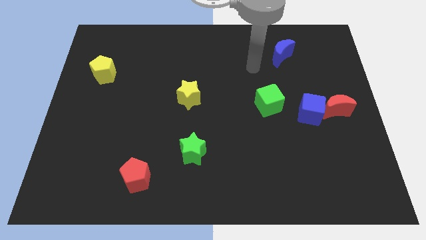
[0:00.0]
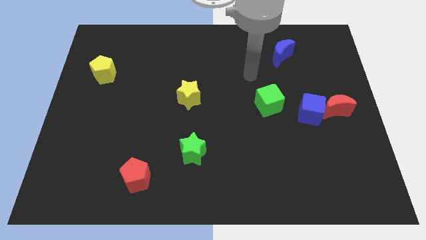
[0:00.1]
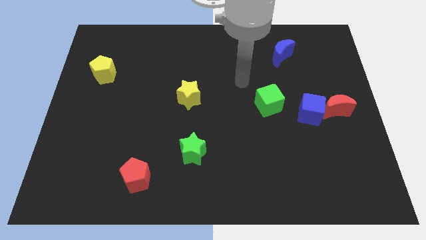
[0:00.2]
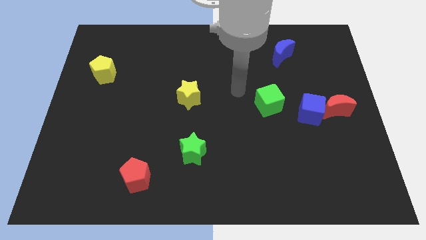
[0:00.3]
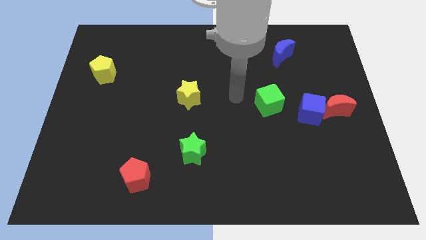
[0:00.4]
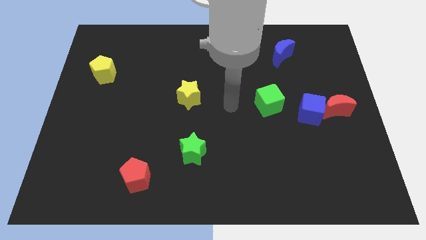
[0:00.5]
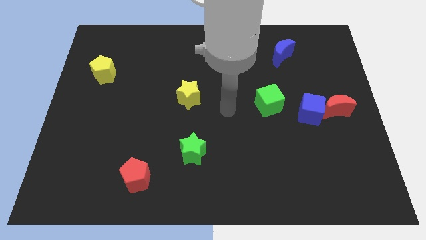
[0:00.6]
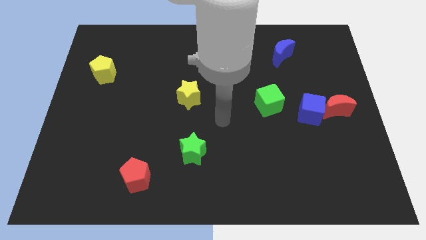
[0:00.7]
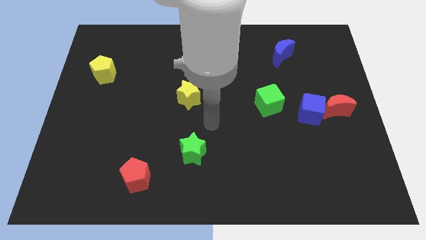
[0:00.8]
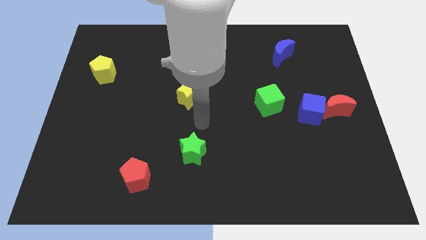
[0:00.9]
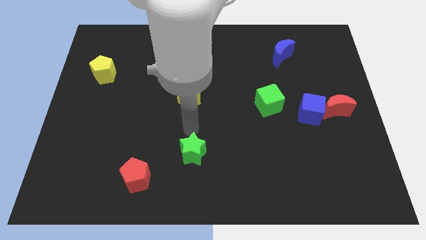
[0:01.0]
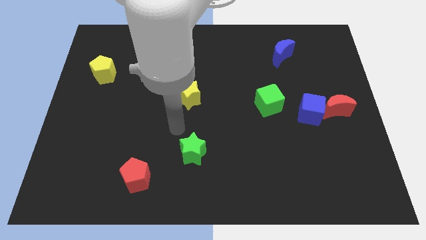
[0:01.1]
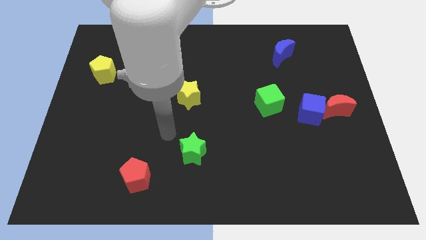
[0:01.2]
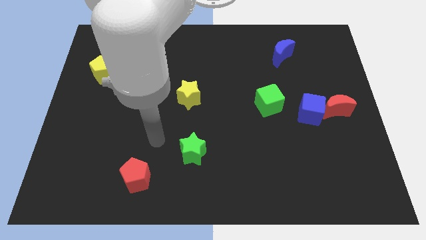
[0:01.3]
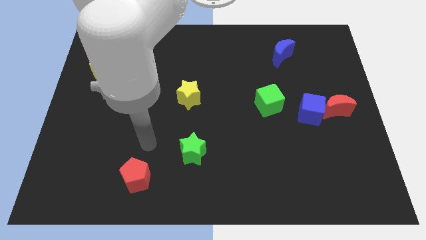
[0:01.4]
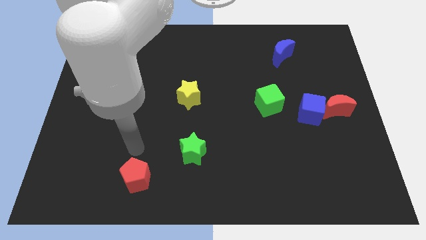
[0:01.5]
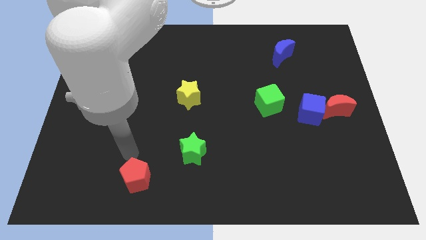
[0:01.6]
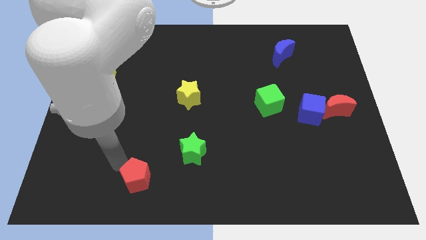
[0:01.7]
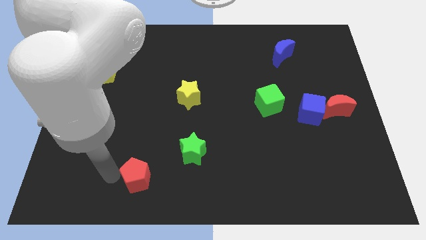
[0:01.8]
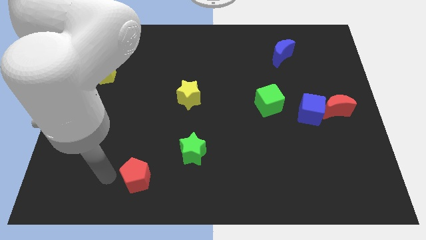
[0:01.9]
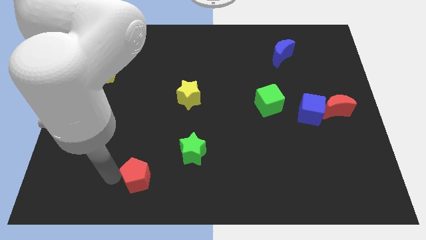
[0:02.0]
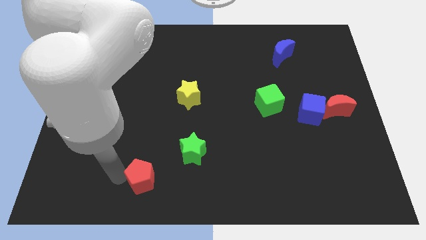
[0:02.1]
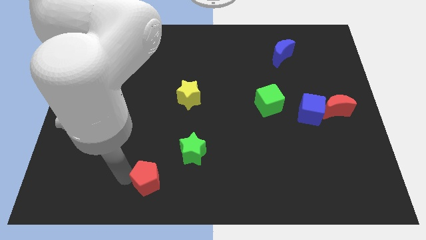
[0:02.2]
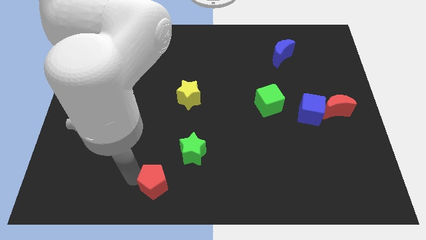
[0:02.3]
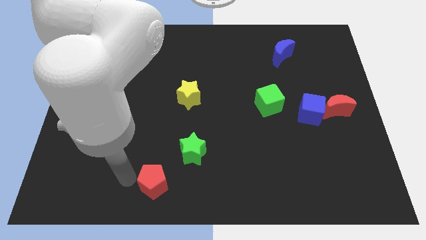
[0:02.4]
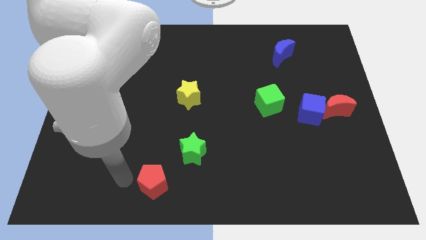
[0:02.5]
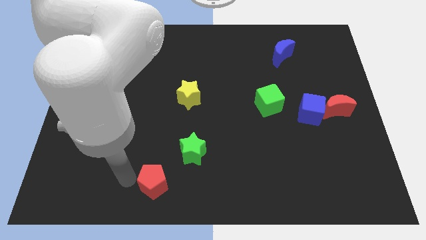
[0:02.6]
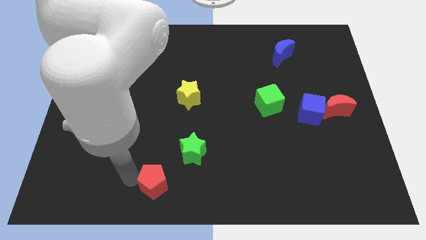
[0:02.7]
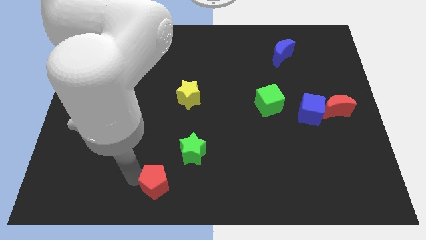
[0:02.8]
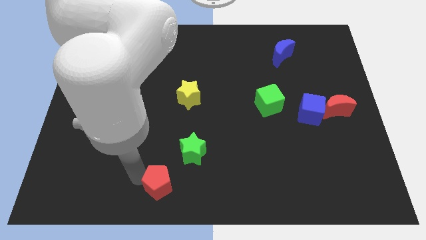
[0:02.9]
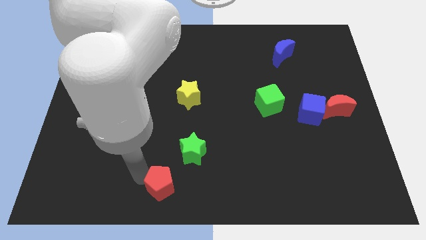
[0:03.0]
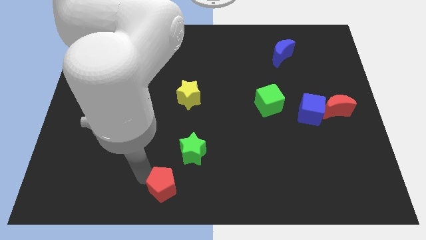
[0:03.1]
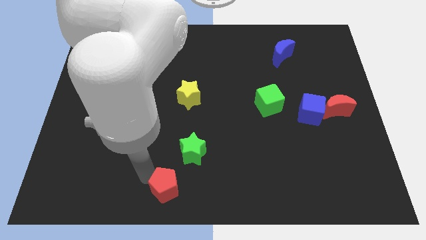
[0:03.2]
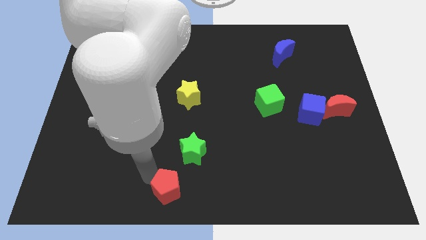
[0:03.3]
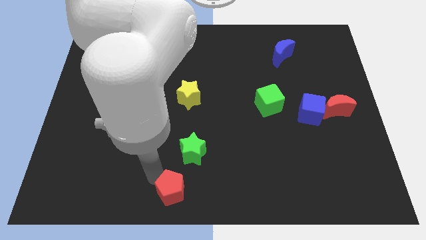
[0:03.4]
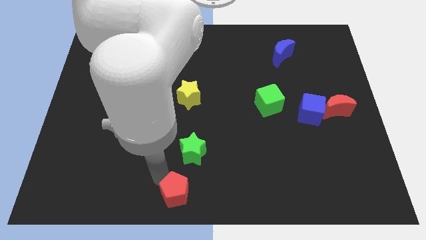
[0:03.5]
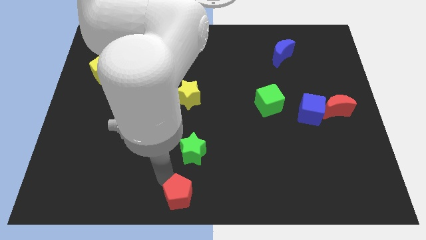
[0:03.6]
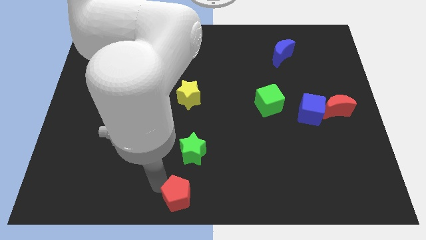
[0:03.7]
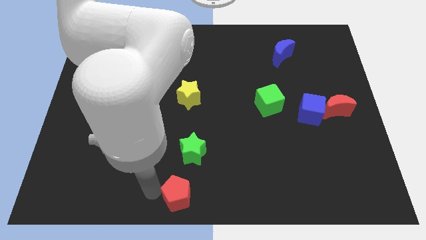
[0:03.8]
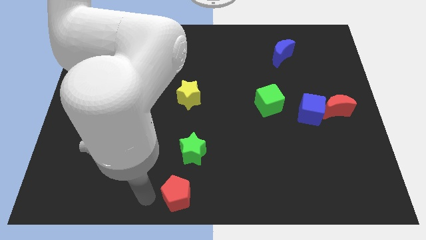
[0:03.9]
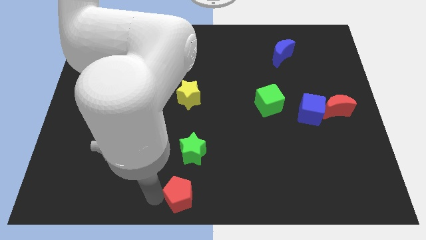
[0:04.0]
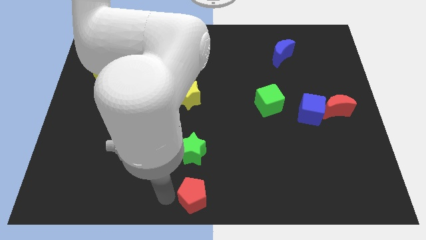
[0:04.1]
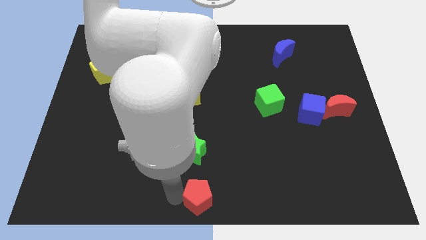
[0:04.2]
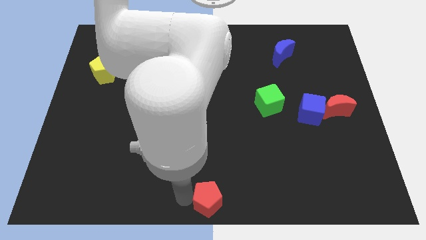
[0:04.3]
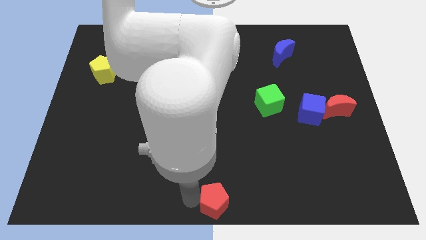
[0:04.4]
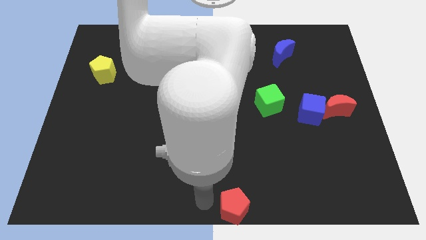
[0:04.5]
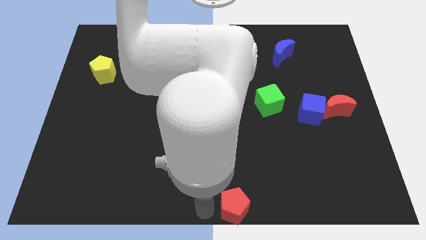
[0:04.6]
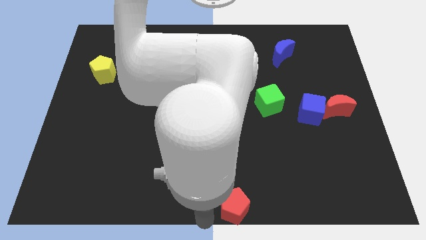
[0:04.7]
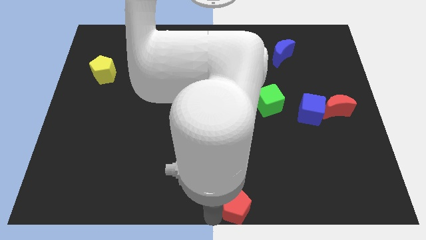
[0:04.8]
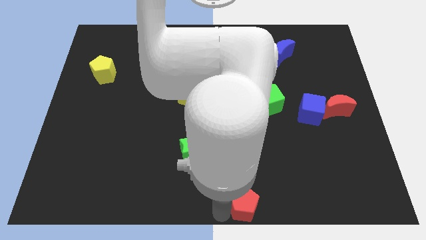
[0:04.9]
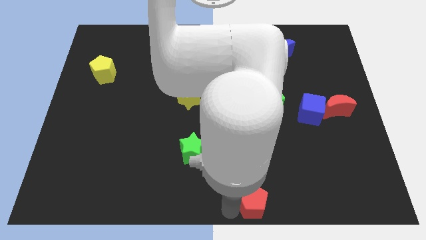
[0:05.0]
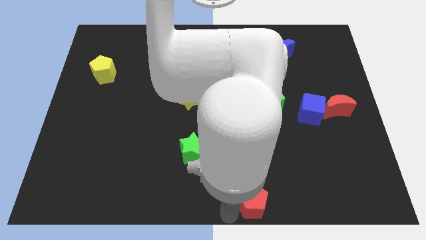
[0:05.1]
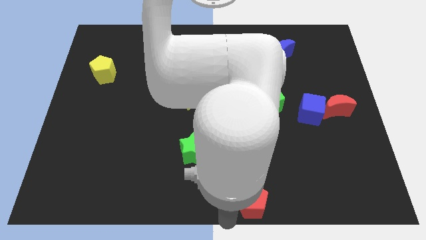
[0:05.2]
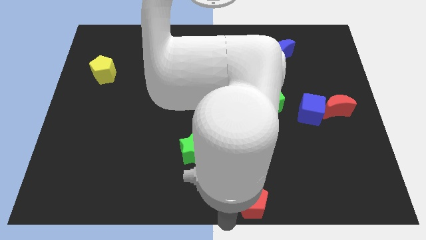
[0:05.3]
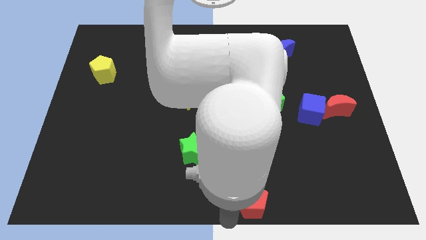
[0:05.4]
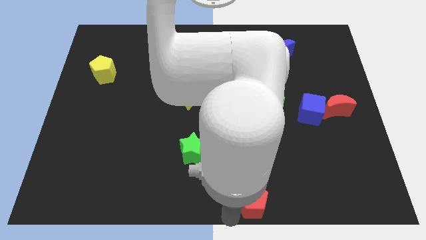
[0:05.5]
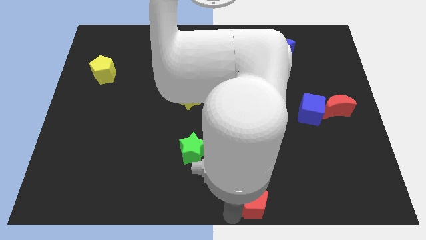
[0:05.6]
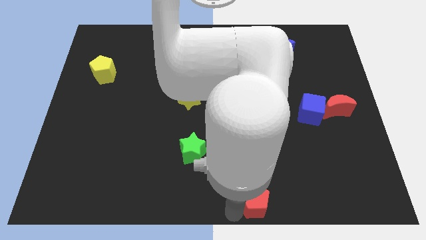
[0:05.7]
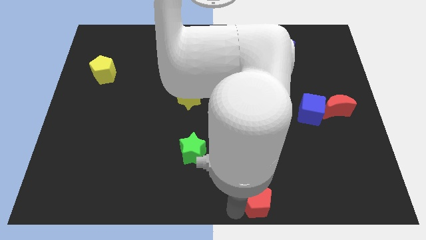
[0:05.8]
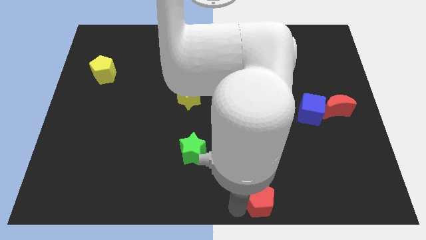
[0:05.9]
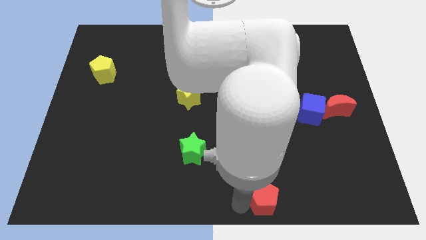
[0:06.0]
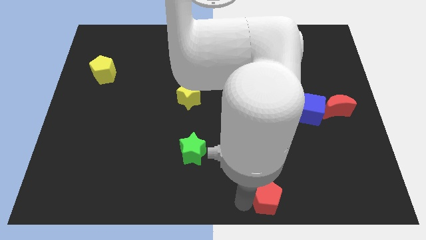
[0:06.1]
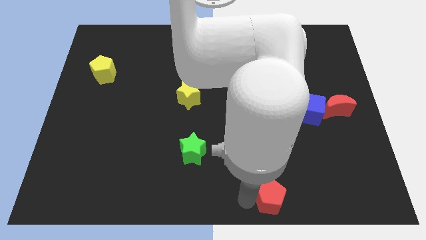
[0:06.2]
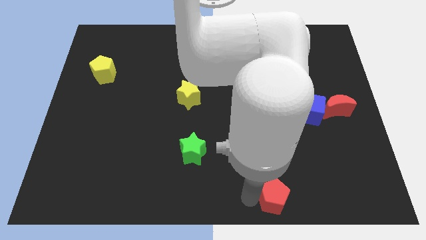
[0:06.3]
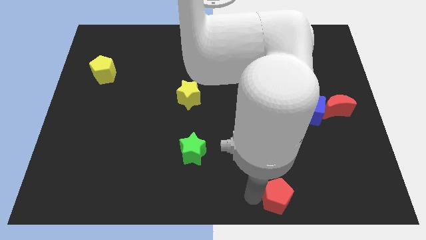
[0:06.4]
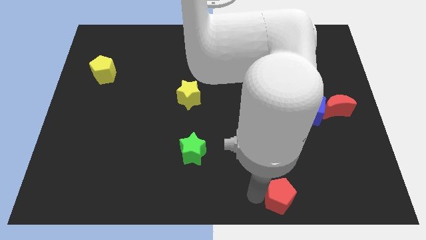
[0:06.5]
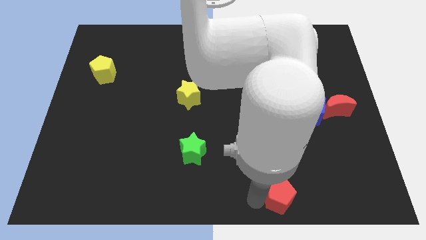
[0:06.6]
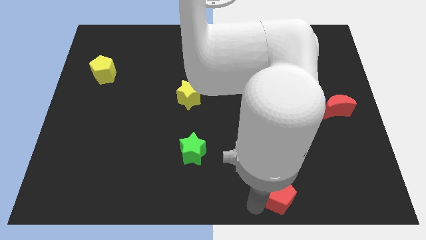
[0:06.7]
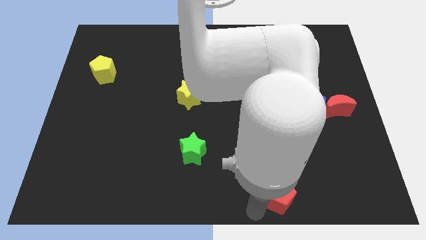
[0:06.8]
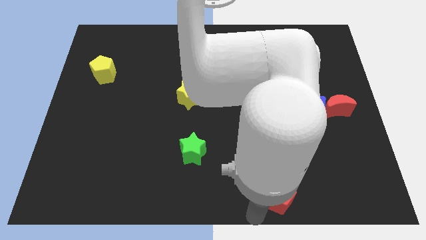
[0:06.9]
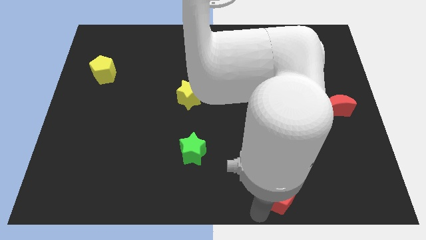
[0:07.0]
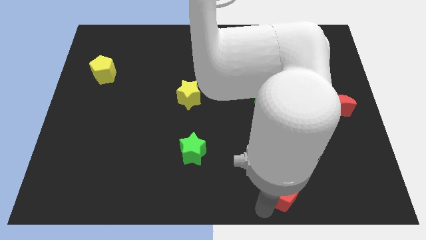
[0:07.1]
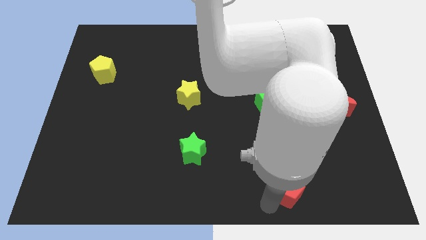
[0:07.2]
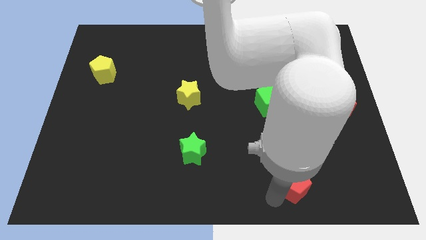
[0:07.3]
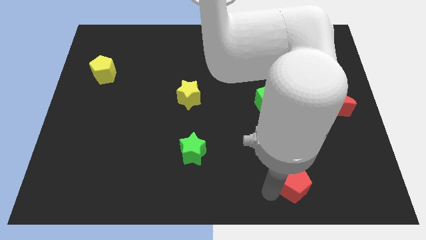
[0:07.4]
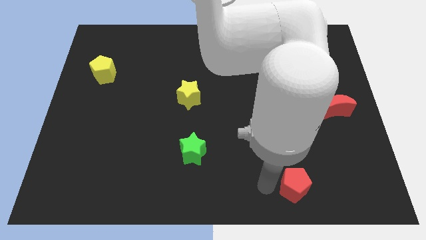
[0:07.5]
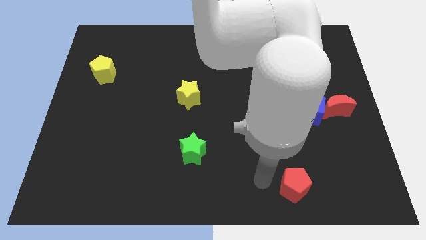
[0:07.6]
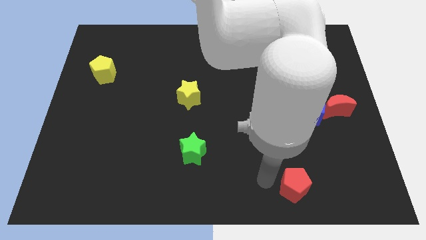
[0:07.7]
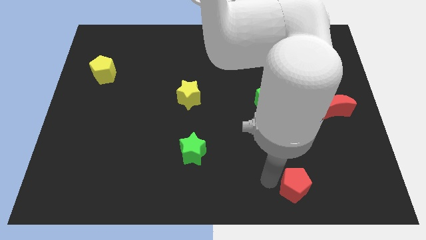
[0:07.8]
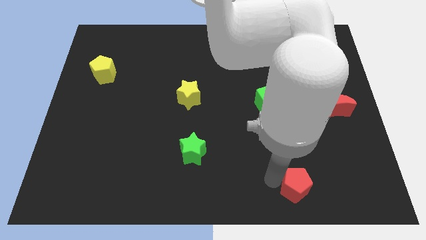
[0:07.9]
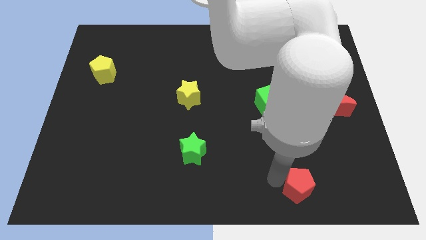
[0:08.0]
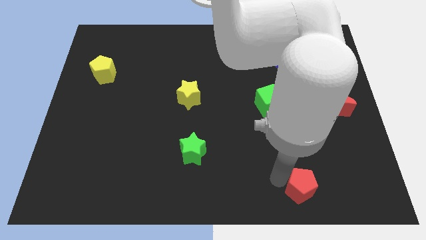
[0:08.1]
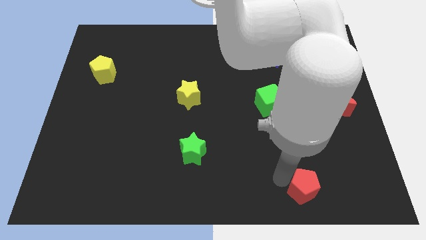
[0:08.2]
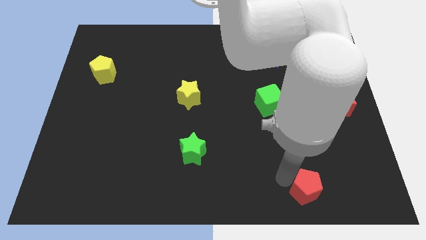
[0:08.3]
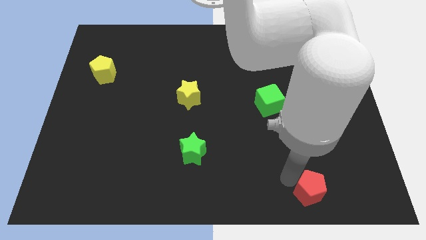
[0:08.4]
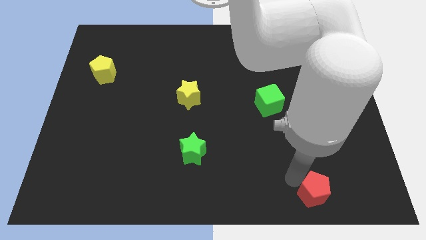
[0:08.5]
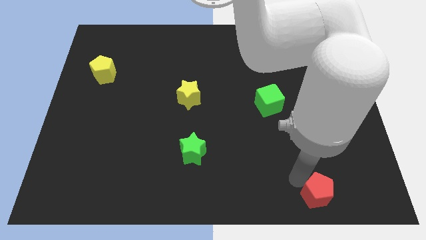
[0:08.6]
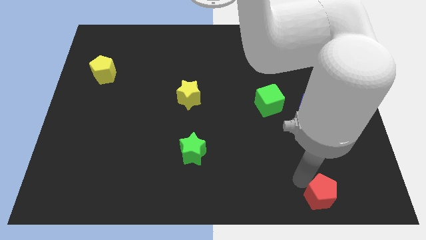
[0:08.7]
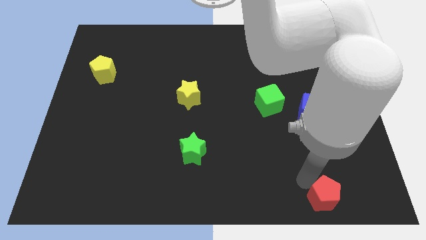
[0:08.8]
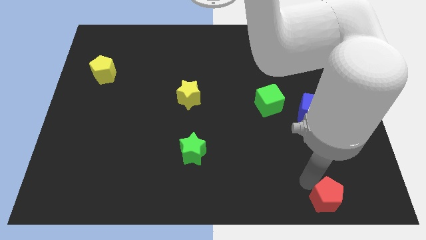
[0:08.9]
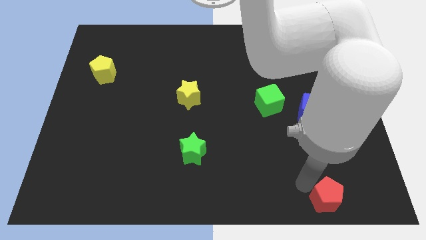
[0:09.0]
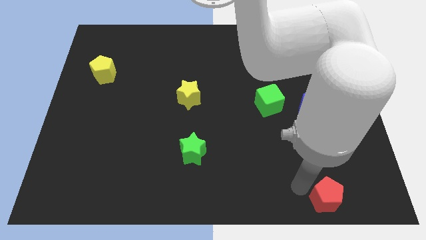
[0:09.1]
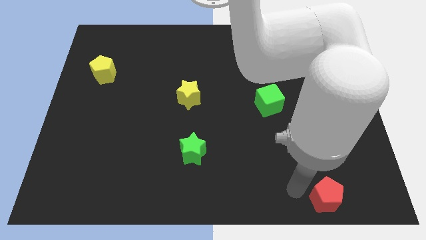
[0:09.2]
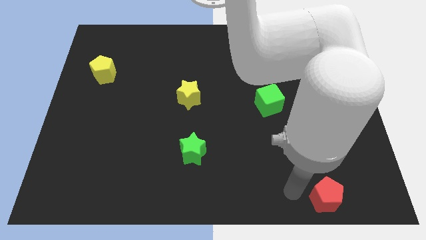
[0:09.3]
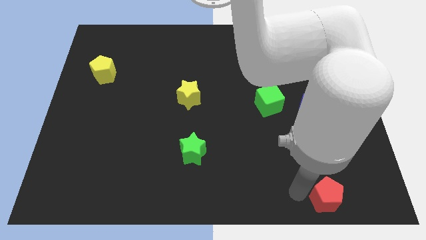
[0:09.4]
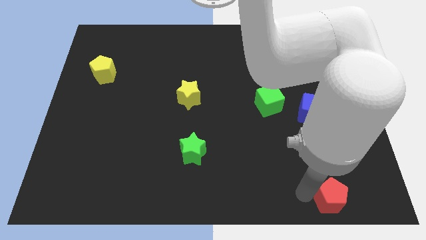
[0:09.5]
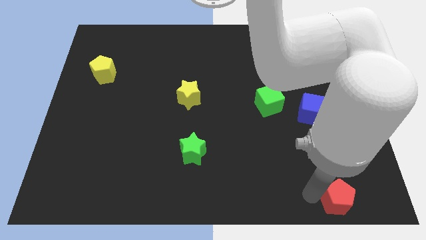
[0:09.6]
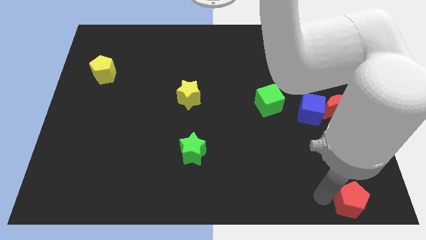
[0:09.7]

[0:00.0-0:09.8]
put the red pentagon to the bottom right of the board
